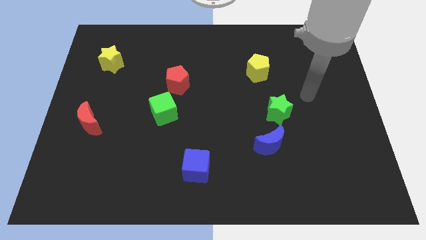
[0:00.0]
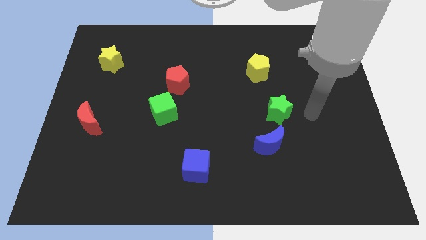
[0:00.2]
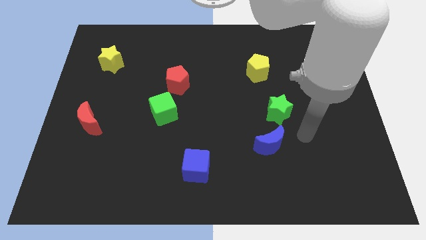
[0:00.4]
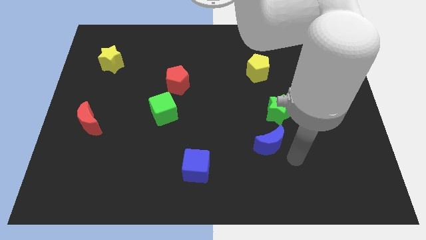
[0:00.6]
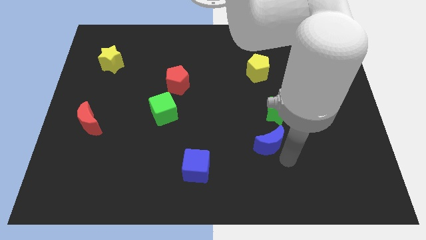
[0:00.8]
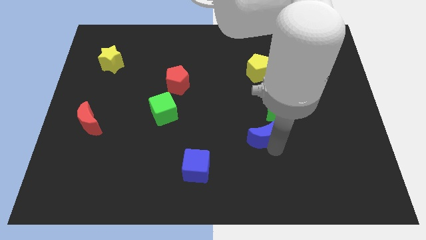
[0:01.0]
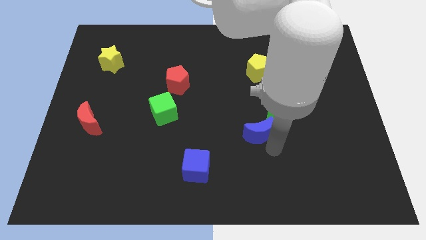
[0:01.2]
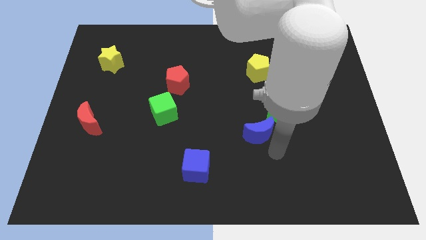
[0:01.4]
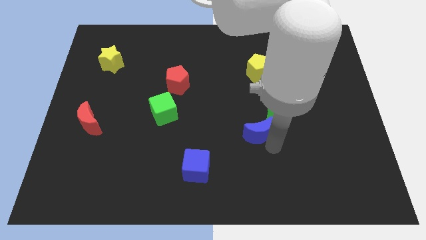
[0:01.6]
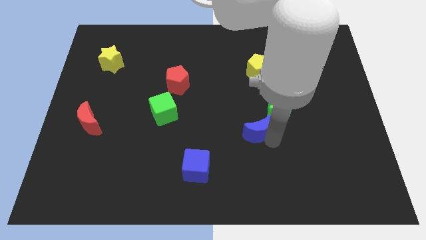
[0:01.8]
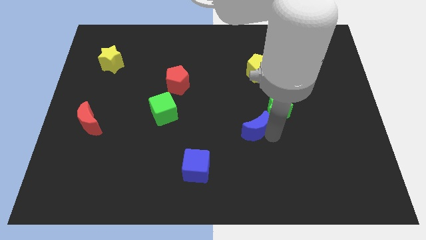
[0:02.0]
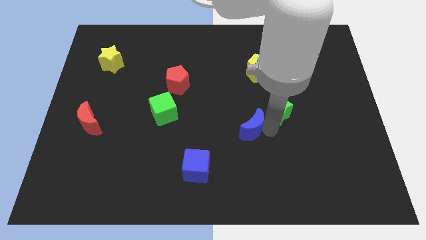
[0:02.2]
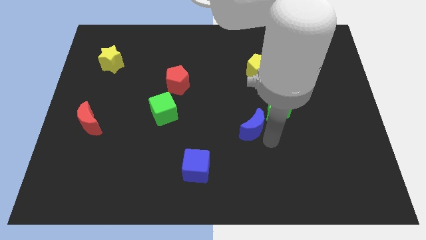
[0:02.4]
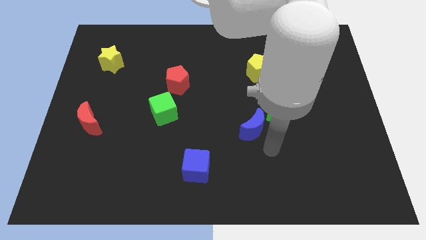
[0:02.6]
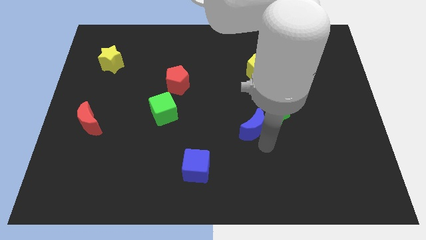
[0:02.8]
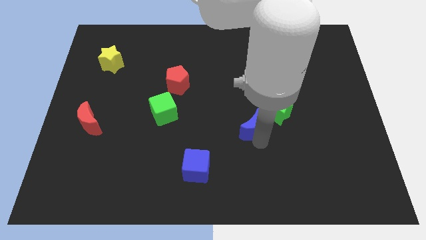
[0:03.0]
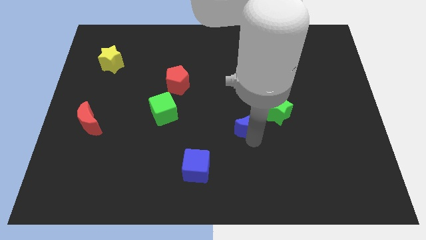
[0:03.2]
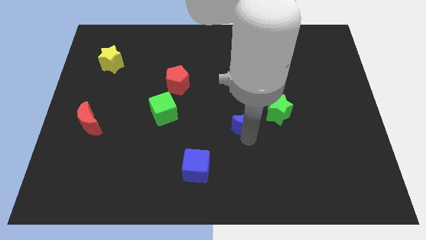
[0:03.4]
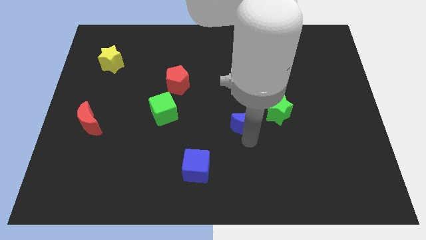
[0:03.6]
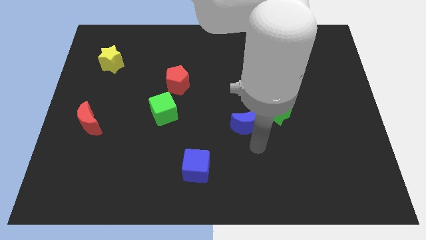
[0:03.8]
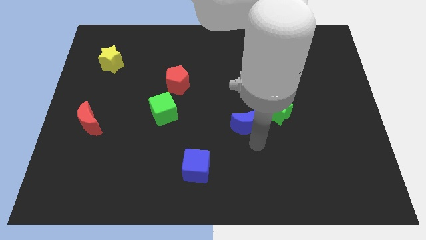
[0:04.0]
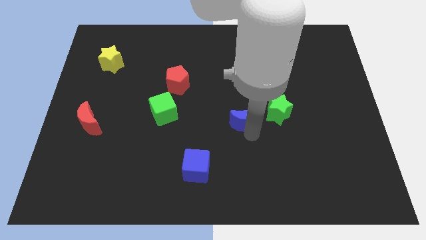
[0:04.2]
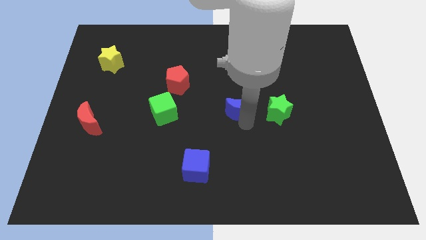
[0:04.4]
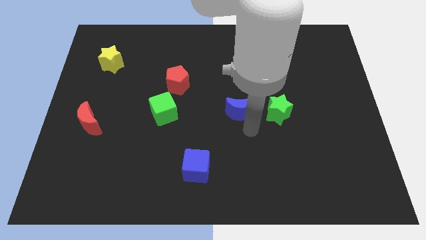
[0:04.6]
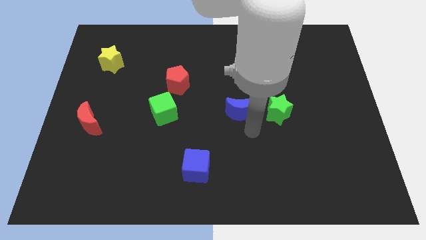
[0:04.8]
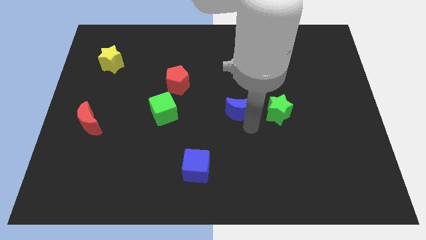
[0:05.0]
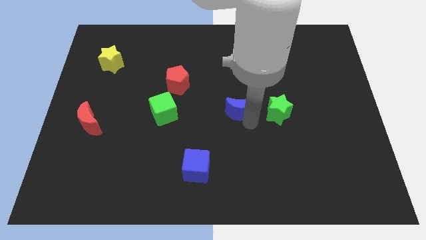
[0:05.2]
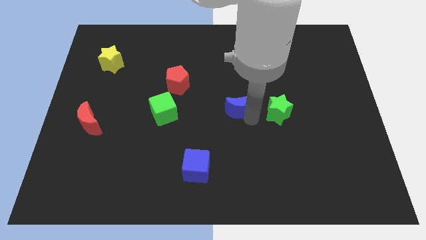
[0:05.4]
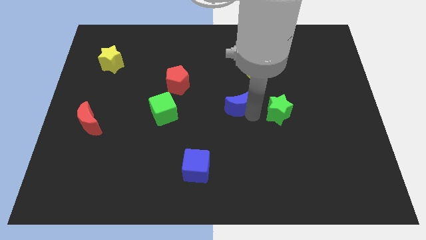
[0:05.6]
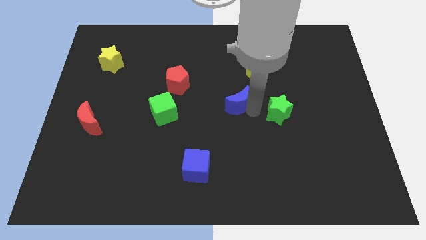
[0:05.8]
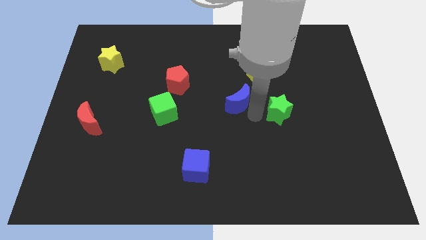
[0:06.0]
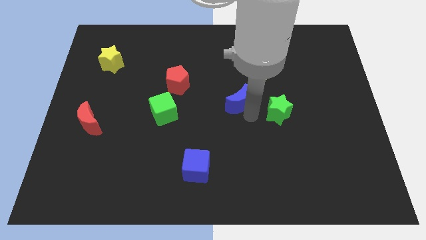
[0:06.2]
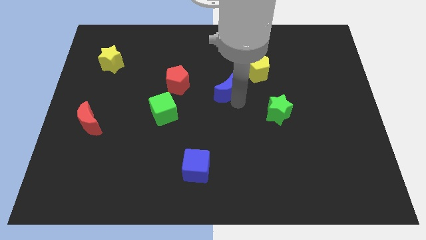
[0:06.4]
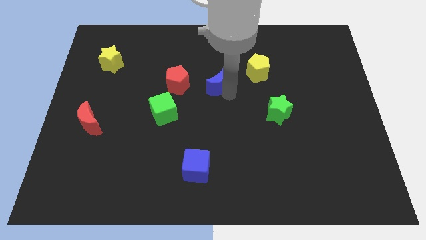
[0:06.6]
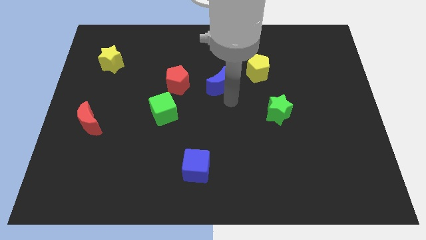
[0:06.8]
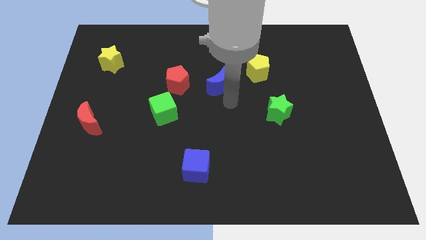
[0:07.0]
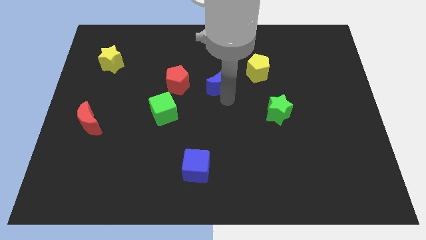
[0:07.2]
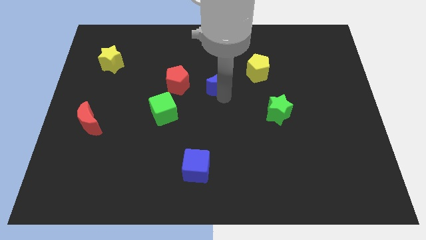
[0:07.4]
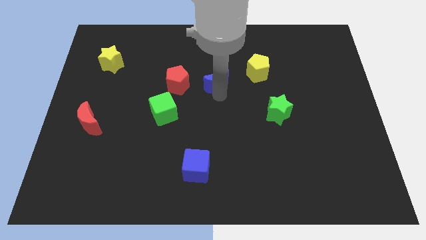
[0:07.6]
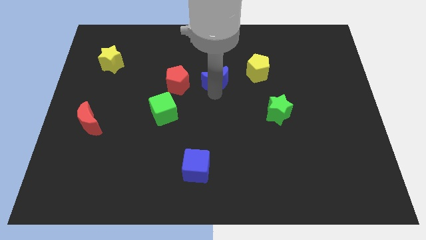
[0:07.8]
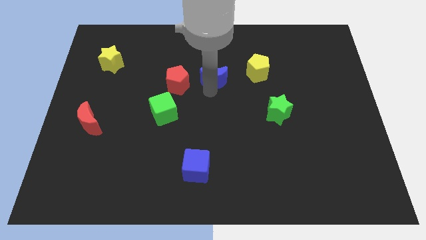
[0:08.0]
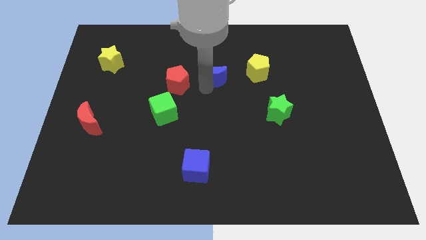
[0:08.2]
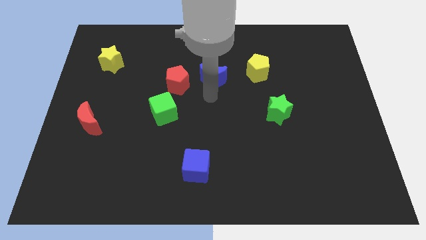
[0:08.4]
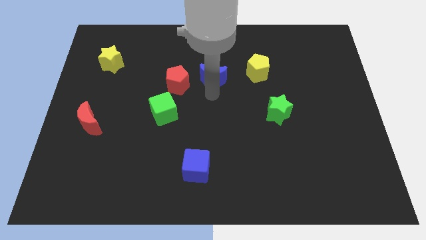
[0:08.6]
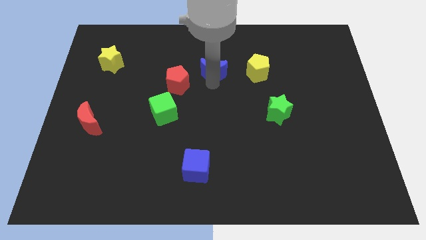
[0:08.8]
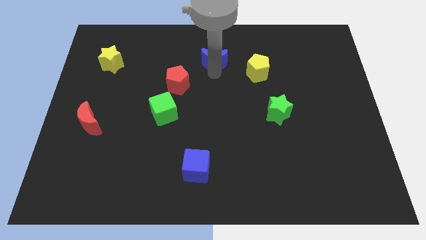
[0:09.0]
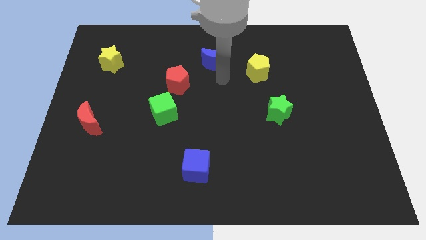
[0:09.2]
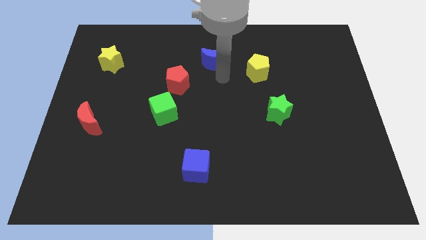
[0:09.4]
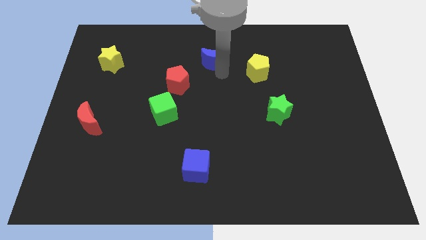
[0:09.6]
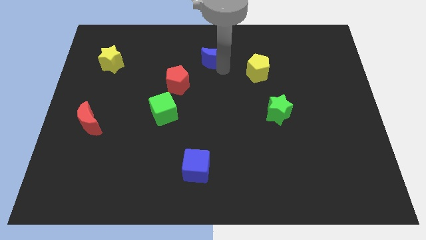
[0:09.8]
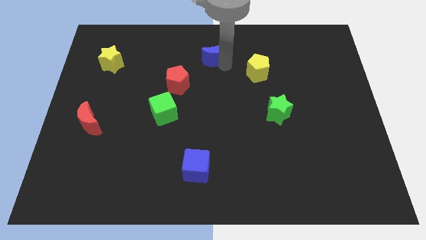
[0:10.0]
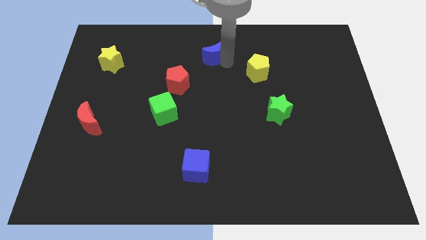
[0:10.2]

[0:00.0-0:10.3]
move the blue moon to the towards your base
